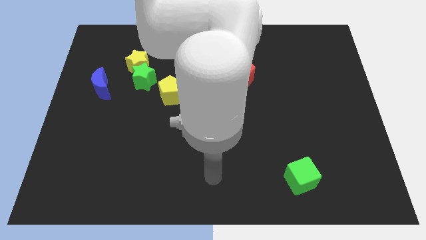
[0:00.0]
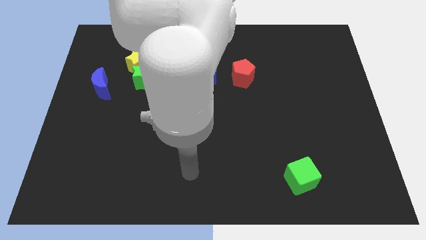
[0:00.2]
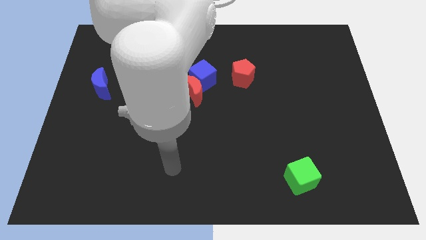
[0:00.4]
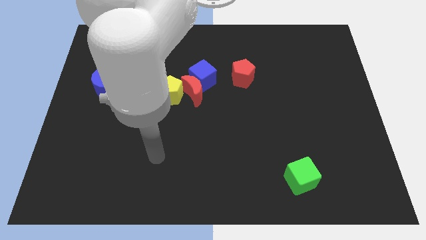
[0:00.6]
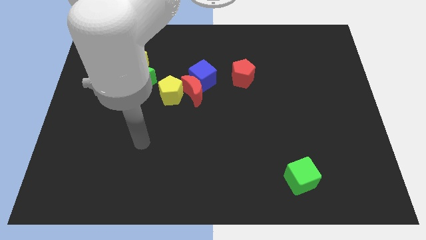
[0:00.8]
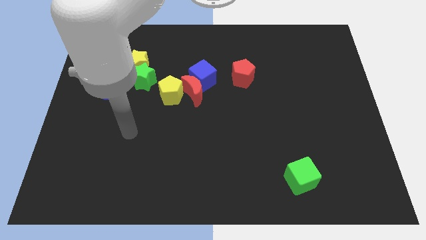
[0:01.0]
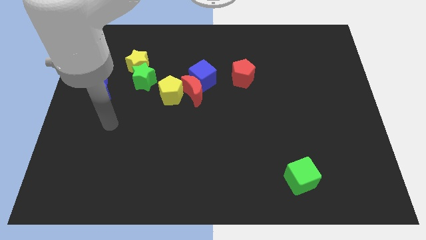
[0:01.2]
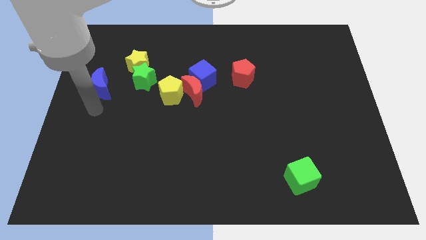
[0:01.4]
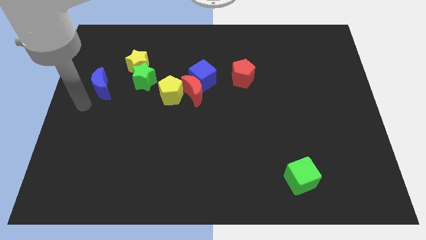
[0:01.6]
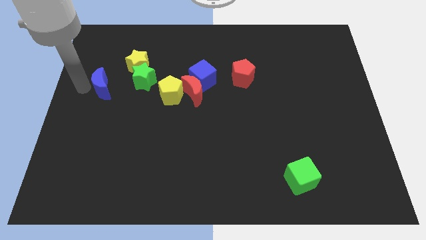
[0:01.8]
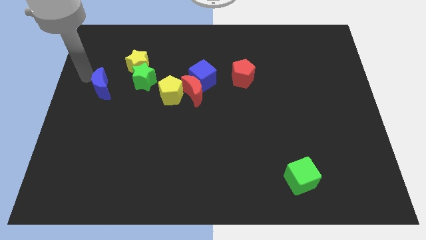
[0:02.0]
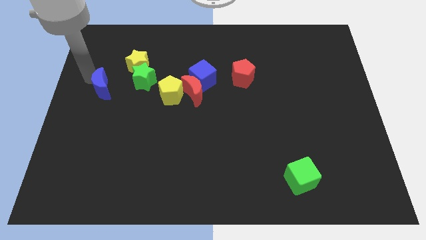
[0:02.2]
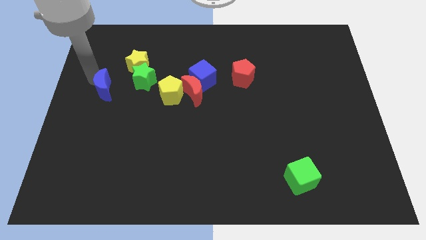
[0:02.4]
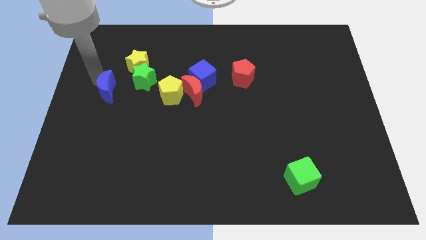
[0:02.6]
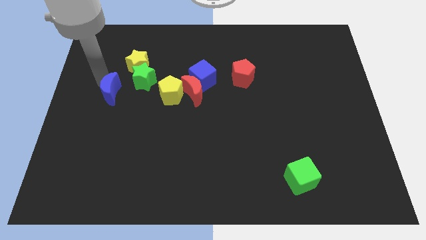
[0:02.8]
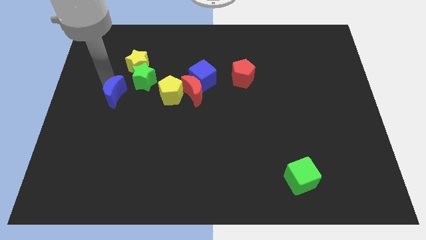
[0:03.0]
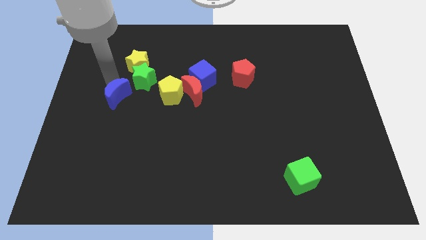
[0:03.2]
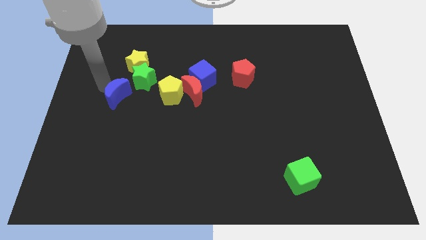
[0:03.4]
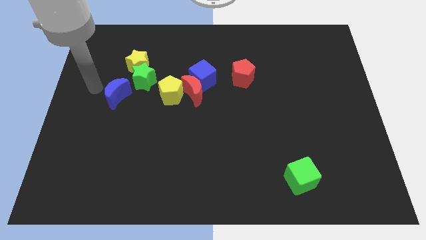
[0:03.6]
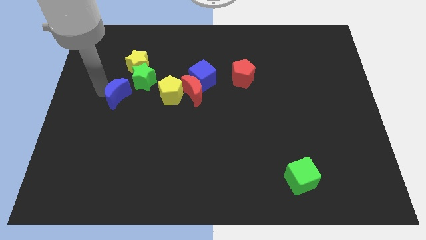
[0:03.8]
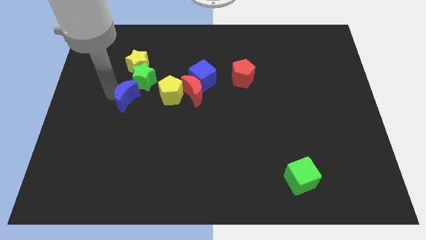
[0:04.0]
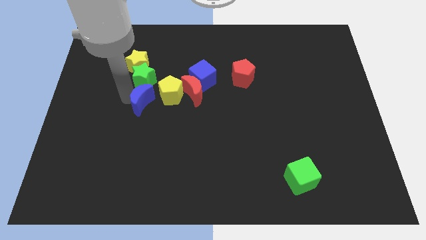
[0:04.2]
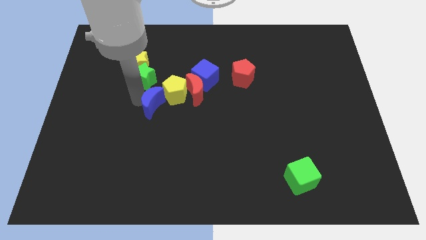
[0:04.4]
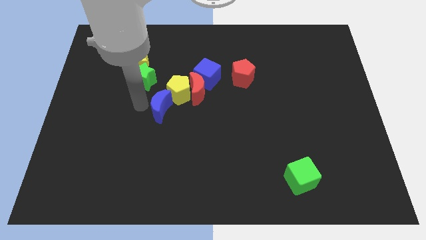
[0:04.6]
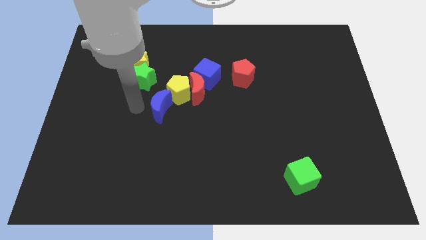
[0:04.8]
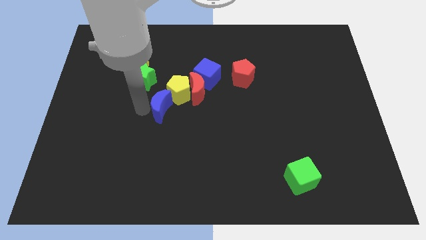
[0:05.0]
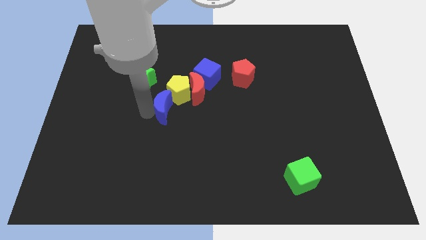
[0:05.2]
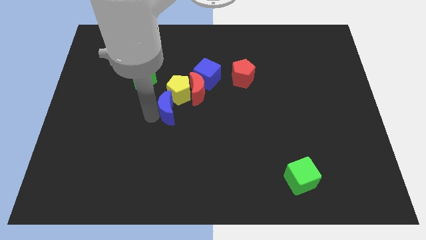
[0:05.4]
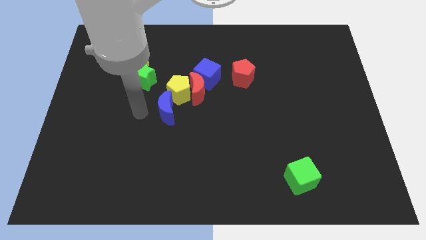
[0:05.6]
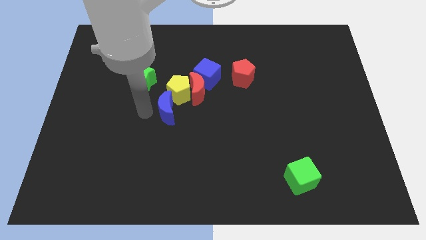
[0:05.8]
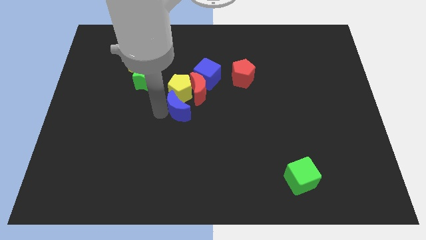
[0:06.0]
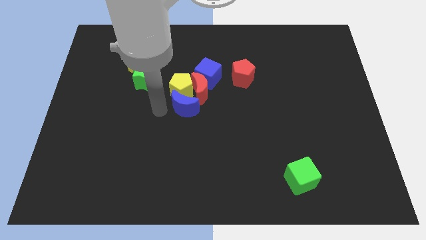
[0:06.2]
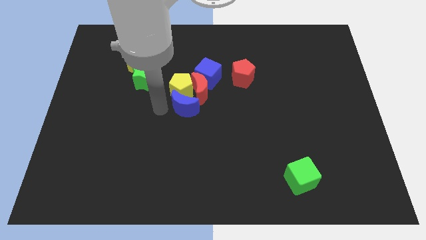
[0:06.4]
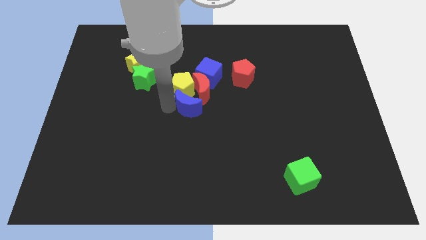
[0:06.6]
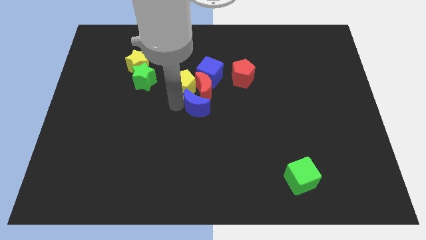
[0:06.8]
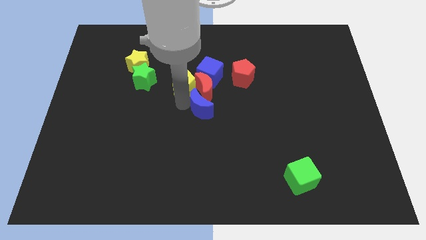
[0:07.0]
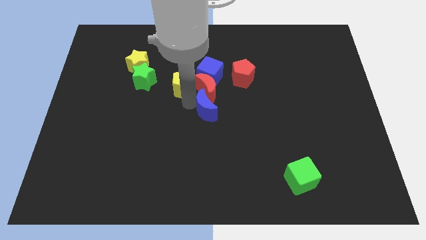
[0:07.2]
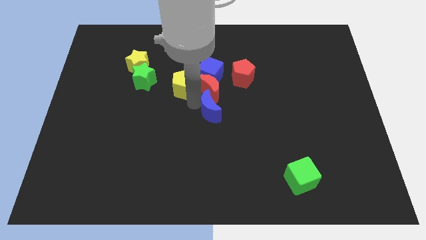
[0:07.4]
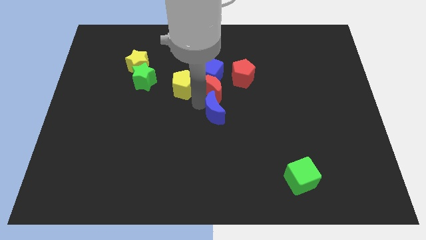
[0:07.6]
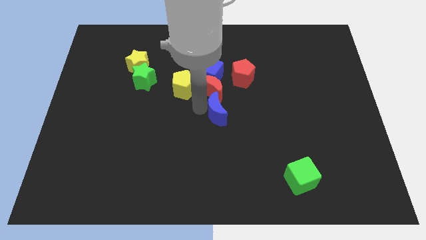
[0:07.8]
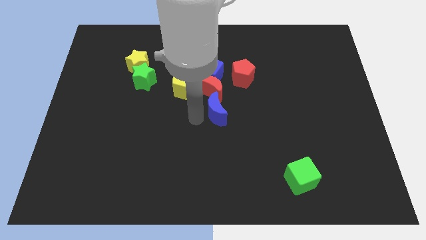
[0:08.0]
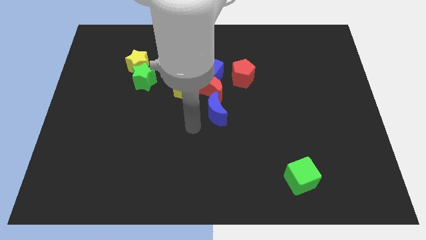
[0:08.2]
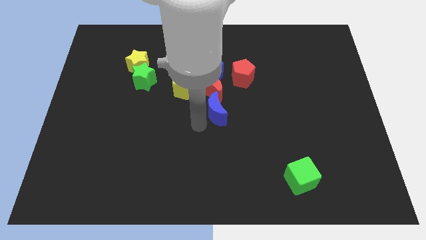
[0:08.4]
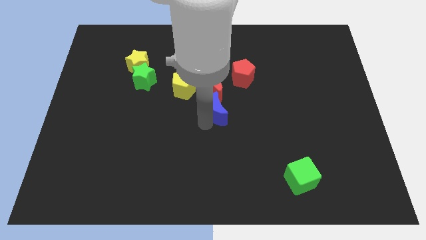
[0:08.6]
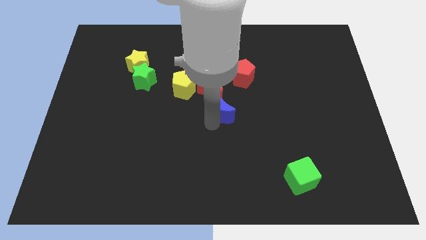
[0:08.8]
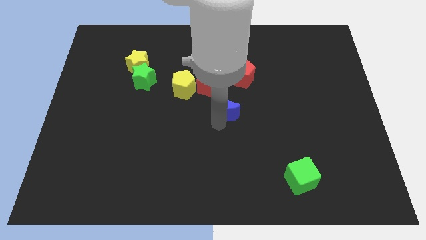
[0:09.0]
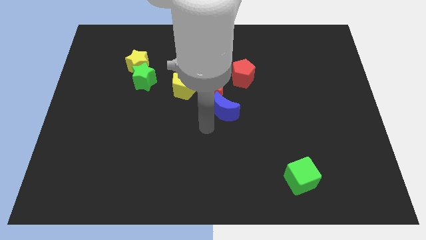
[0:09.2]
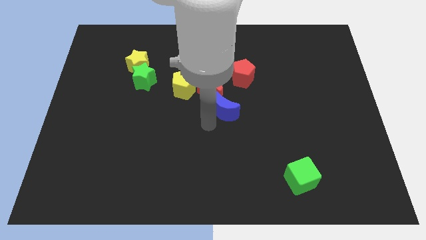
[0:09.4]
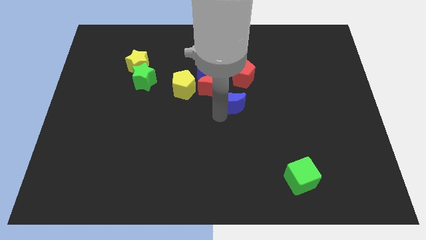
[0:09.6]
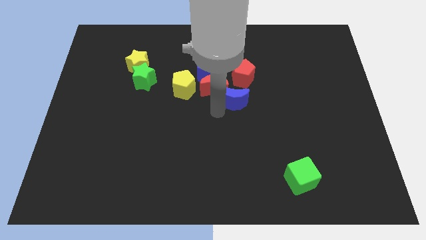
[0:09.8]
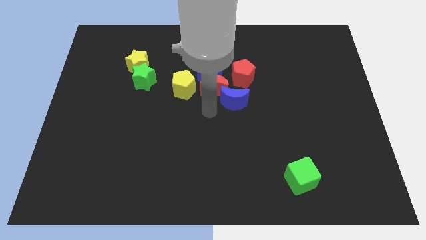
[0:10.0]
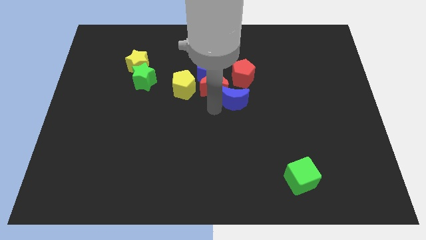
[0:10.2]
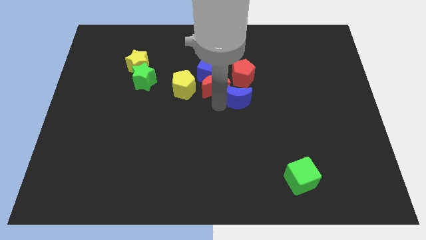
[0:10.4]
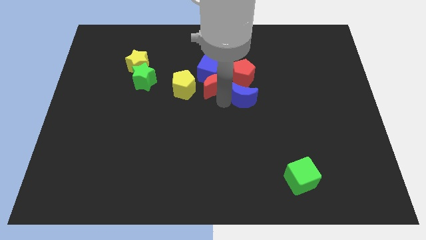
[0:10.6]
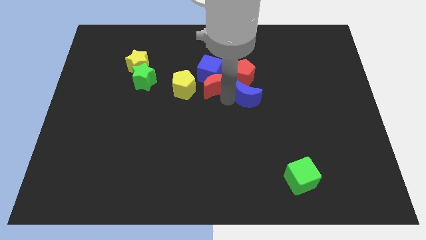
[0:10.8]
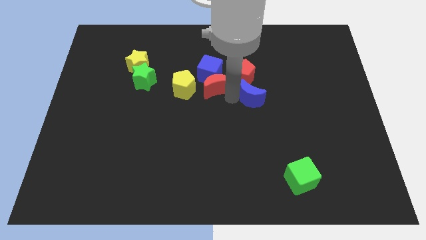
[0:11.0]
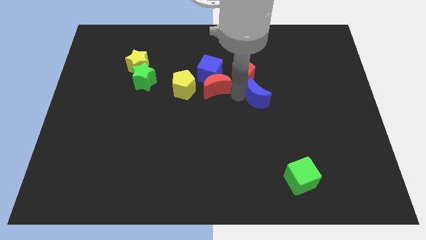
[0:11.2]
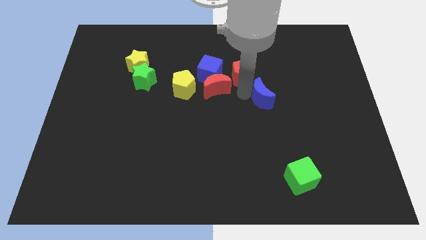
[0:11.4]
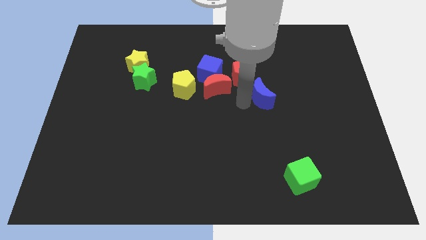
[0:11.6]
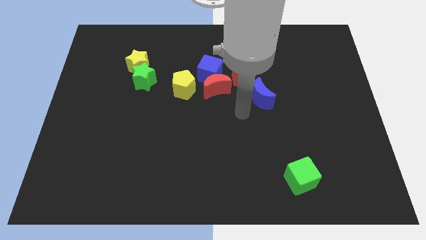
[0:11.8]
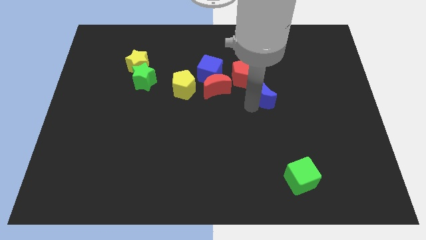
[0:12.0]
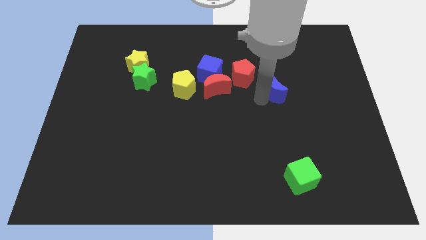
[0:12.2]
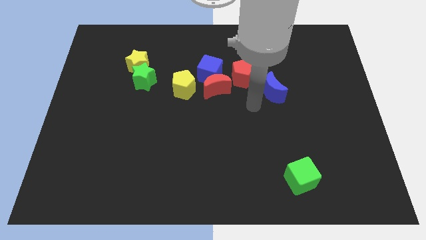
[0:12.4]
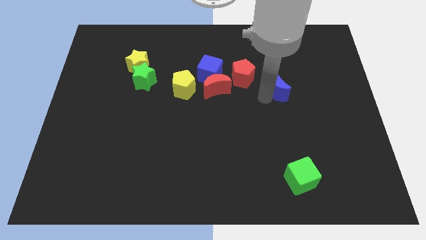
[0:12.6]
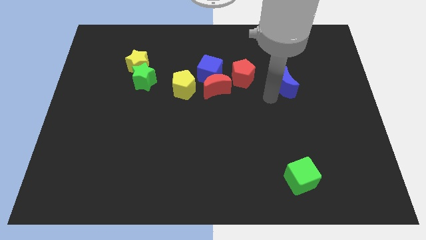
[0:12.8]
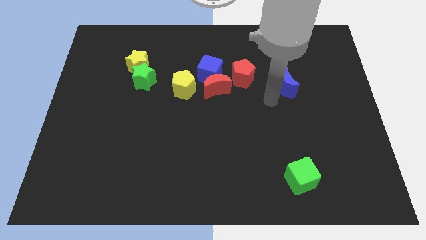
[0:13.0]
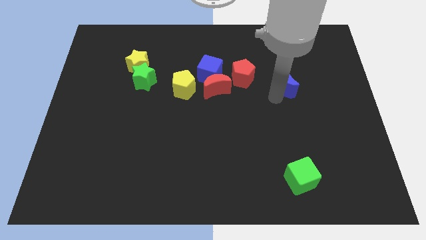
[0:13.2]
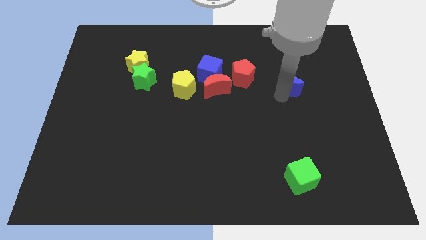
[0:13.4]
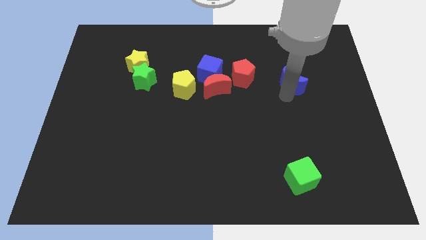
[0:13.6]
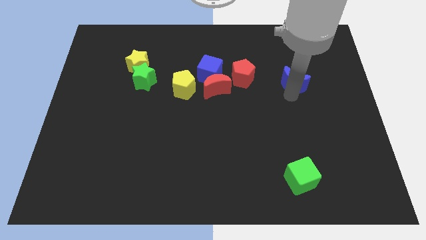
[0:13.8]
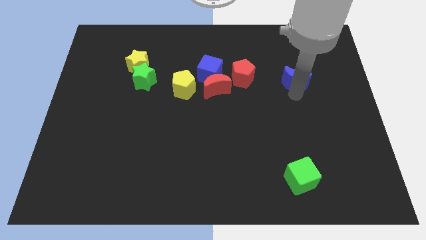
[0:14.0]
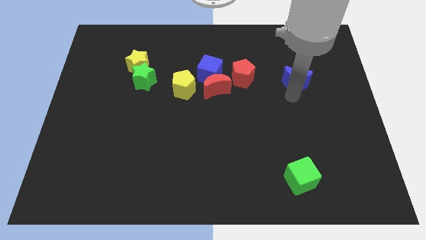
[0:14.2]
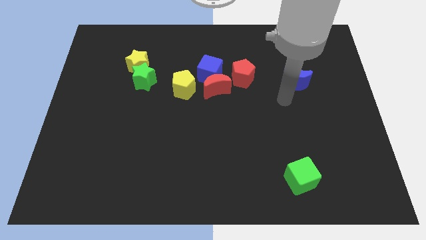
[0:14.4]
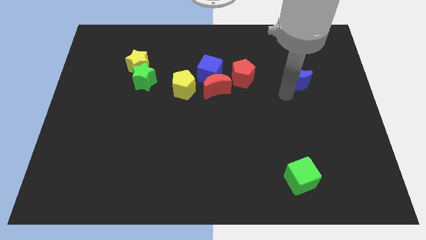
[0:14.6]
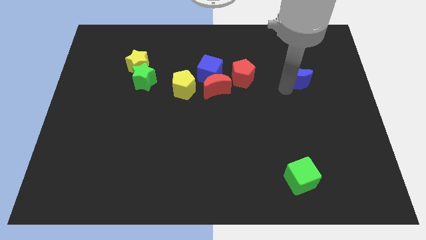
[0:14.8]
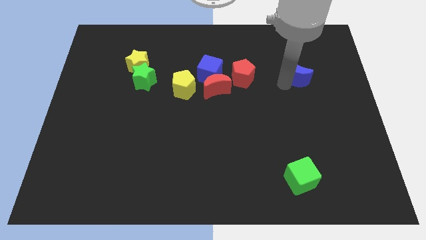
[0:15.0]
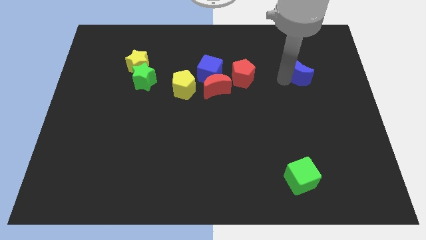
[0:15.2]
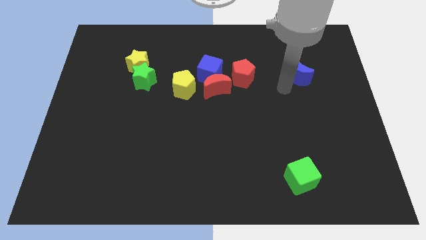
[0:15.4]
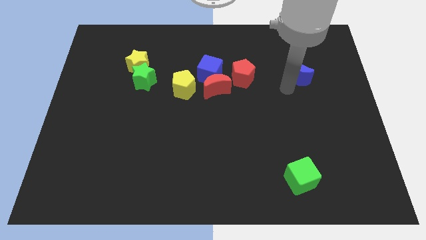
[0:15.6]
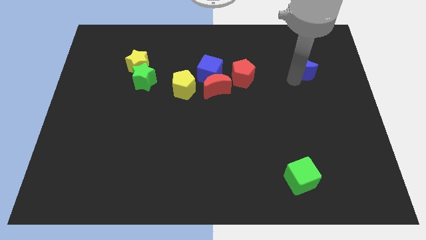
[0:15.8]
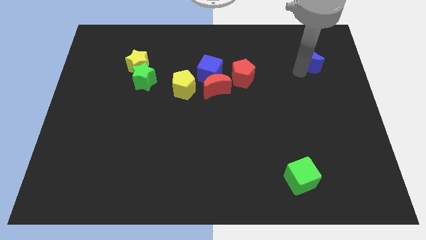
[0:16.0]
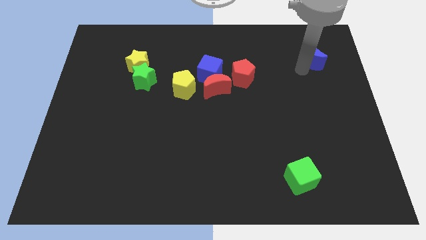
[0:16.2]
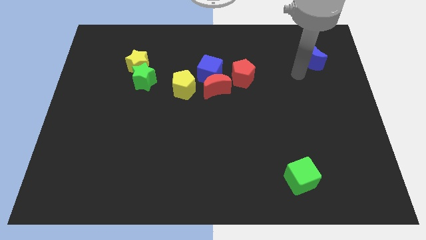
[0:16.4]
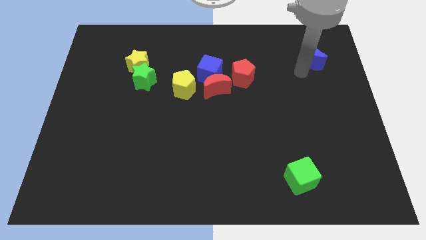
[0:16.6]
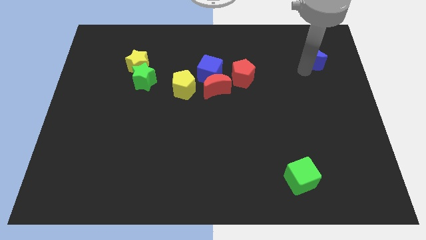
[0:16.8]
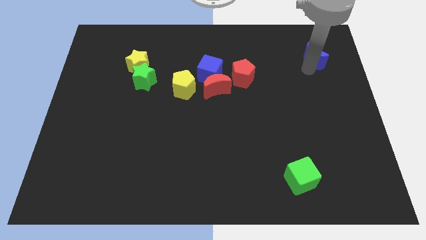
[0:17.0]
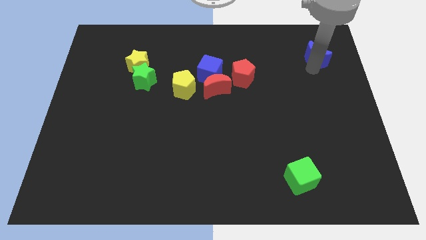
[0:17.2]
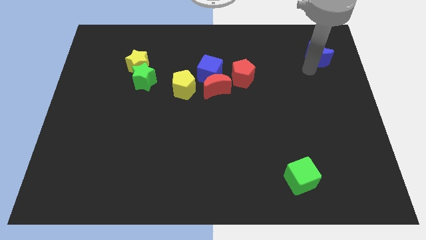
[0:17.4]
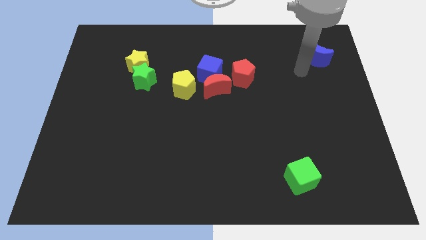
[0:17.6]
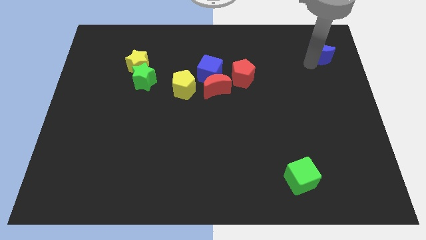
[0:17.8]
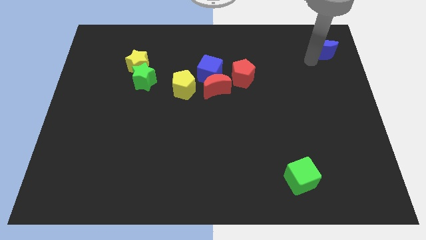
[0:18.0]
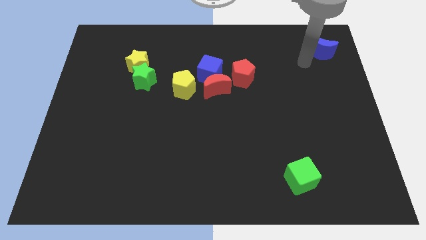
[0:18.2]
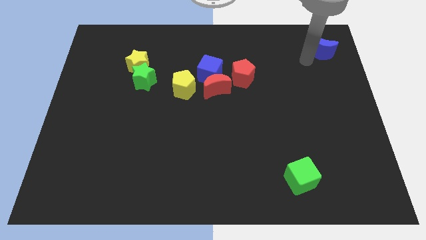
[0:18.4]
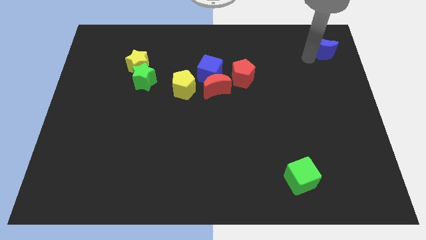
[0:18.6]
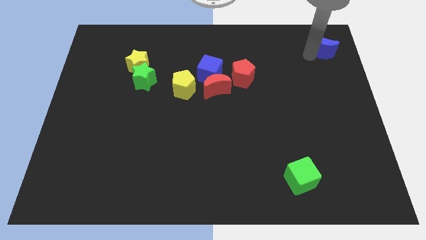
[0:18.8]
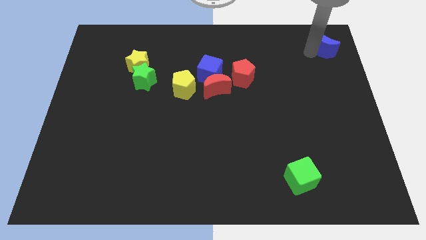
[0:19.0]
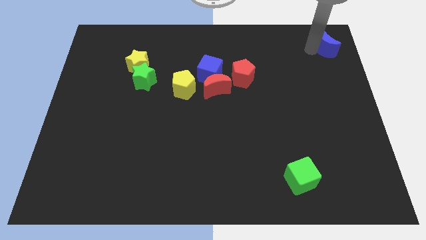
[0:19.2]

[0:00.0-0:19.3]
move the blue moon to the top right of the board
